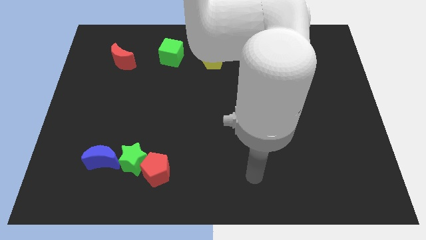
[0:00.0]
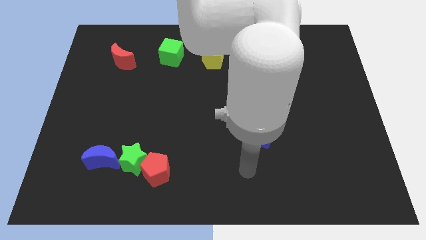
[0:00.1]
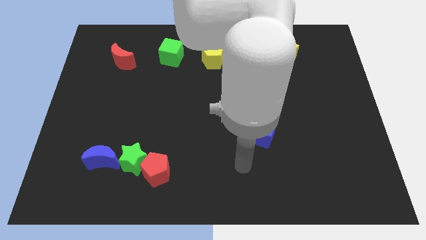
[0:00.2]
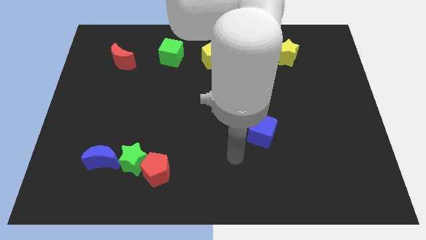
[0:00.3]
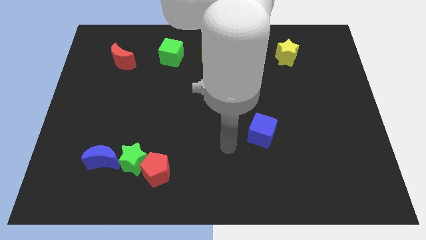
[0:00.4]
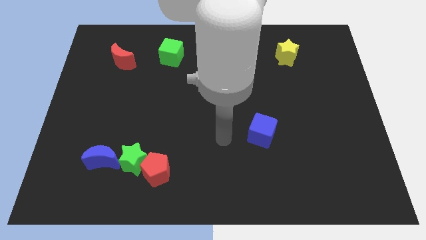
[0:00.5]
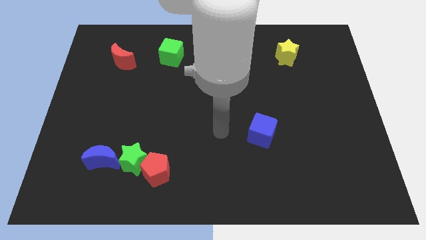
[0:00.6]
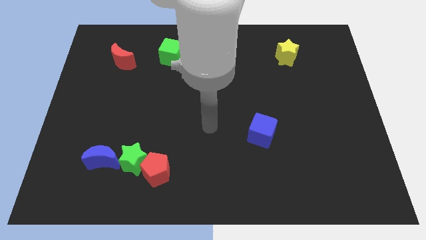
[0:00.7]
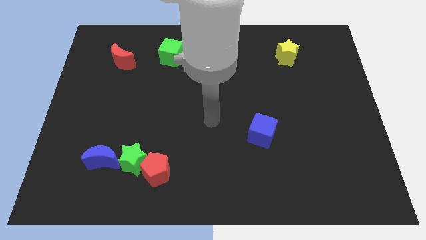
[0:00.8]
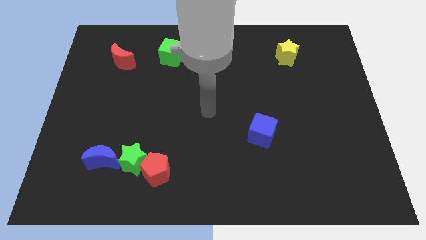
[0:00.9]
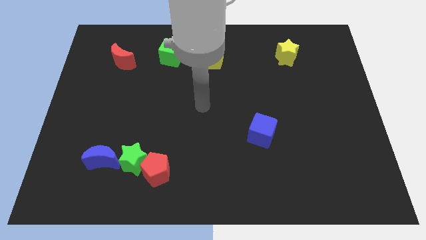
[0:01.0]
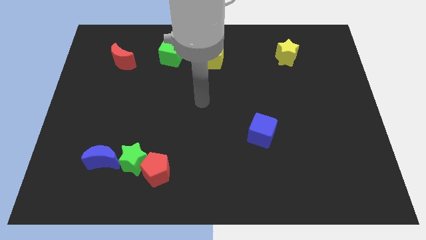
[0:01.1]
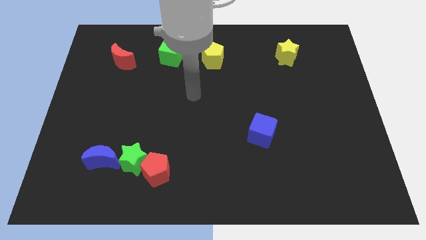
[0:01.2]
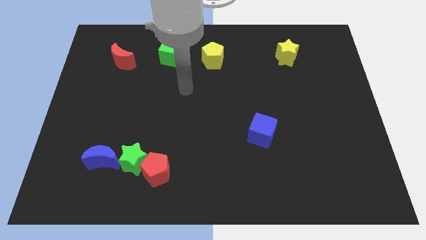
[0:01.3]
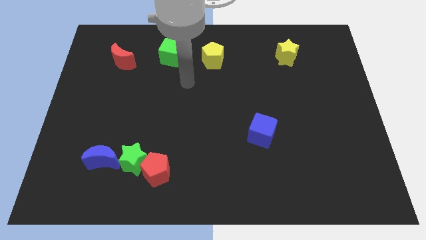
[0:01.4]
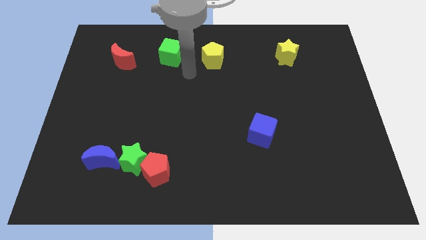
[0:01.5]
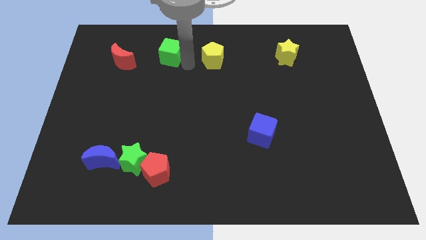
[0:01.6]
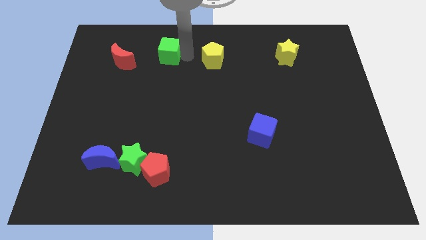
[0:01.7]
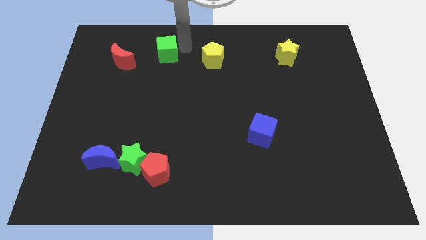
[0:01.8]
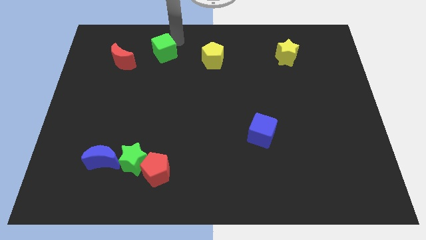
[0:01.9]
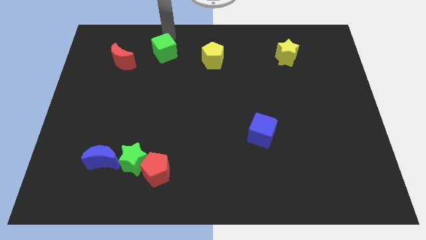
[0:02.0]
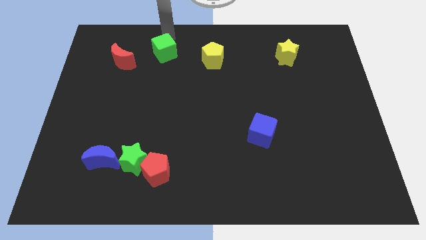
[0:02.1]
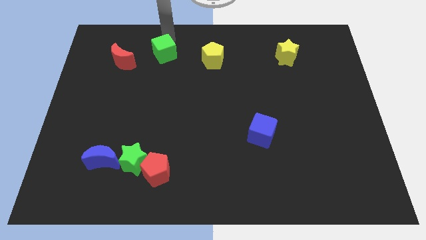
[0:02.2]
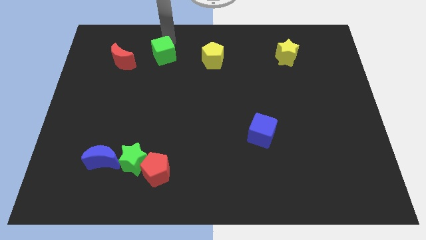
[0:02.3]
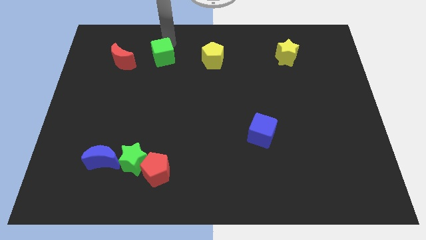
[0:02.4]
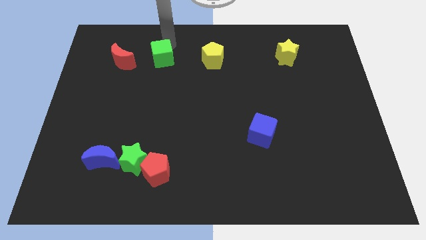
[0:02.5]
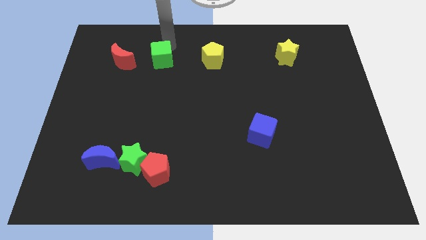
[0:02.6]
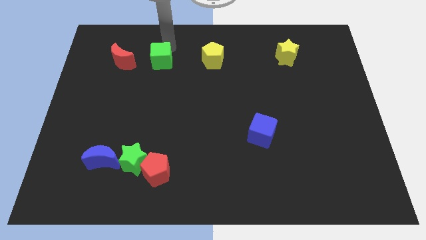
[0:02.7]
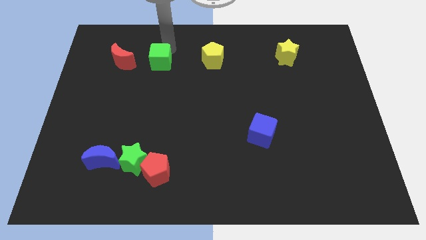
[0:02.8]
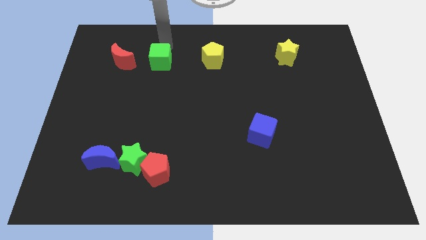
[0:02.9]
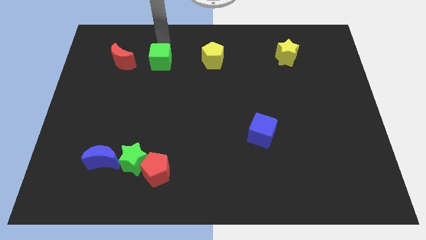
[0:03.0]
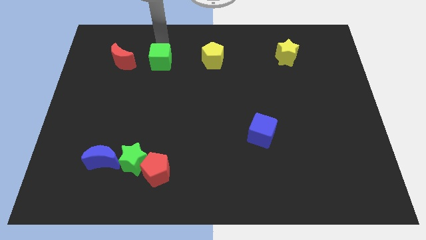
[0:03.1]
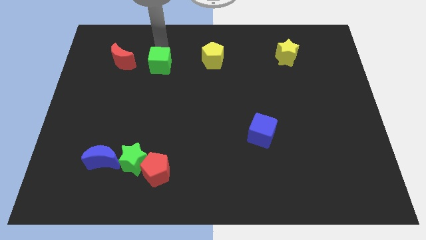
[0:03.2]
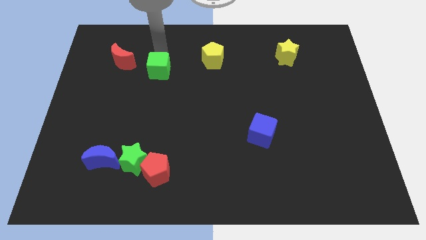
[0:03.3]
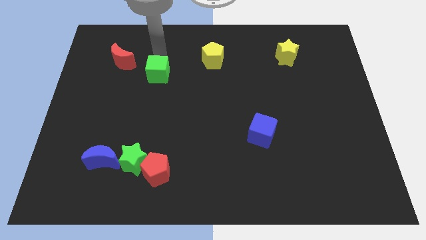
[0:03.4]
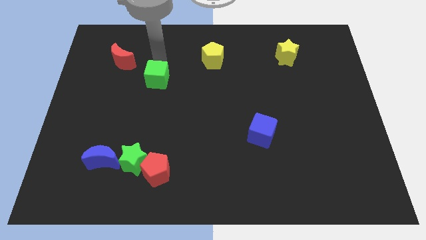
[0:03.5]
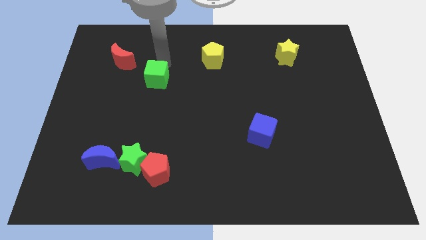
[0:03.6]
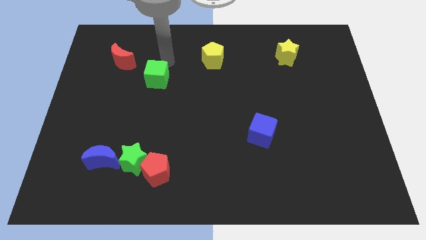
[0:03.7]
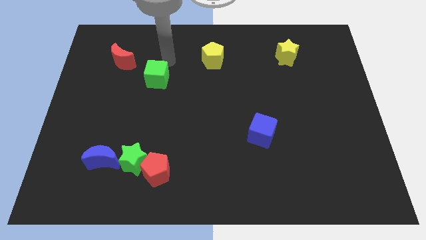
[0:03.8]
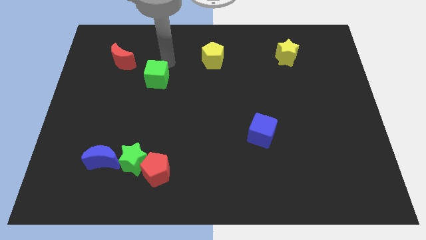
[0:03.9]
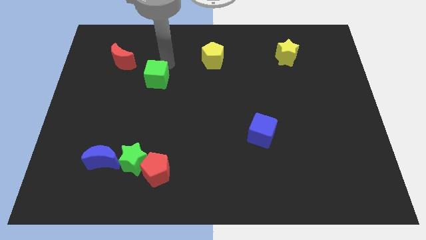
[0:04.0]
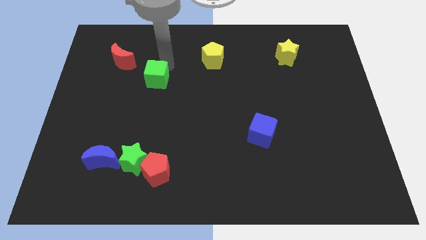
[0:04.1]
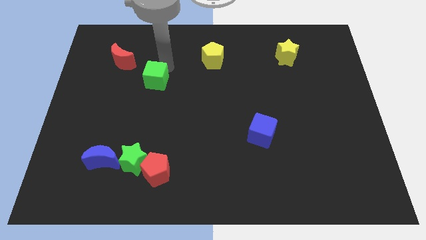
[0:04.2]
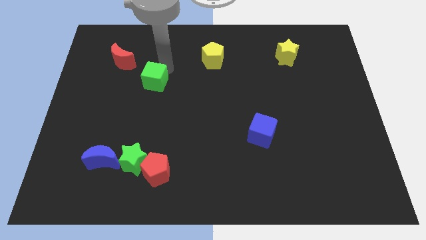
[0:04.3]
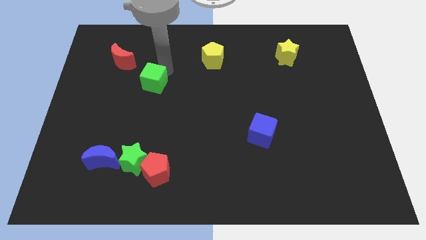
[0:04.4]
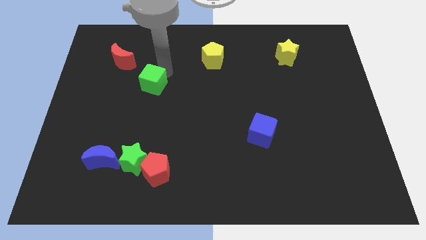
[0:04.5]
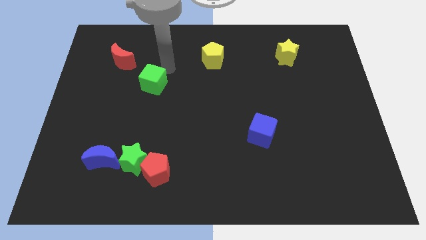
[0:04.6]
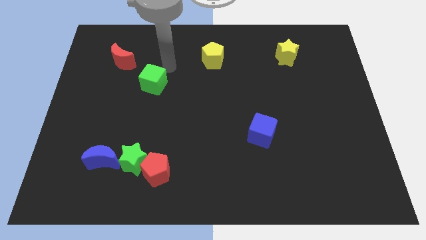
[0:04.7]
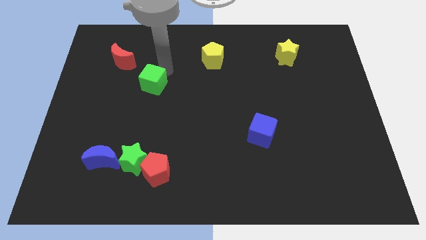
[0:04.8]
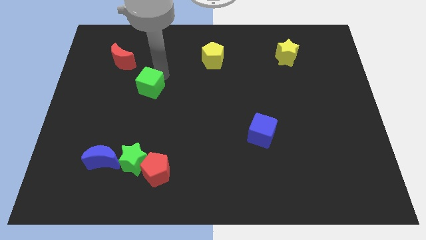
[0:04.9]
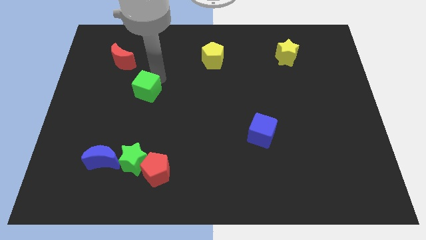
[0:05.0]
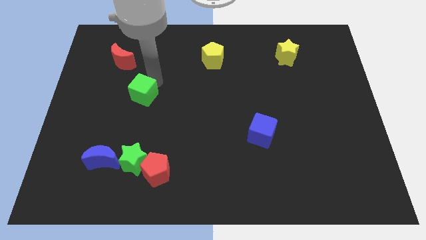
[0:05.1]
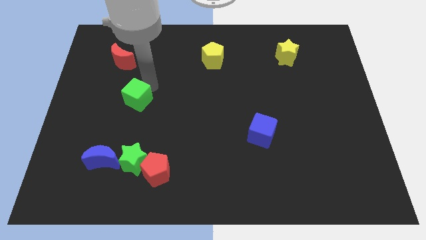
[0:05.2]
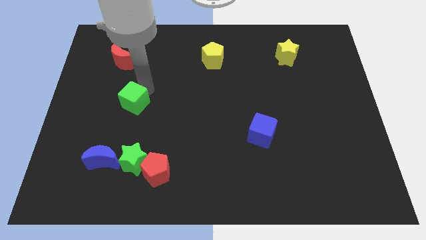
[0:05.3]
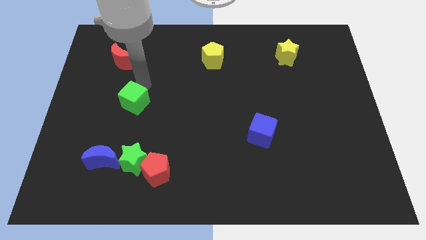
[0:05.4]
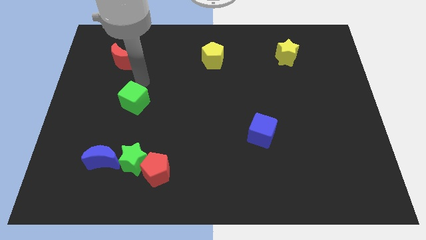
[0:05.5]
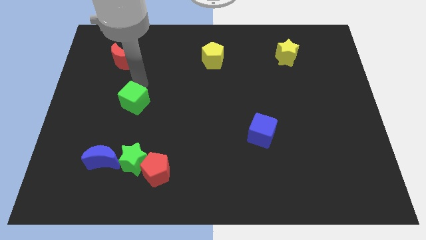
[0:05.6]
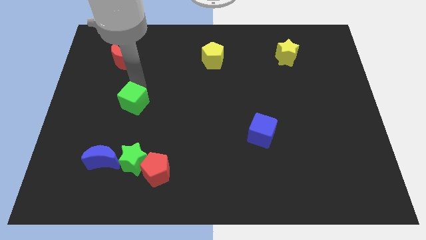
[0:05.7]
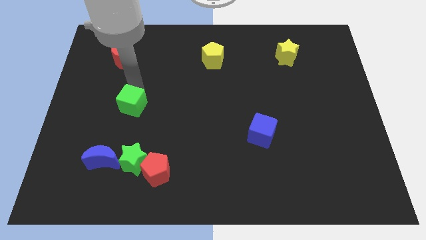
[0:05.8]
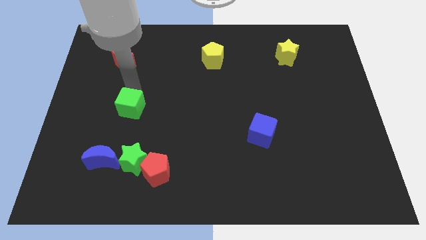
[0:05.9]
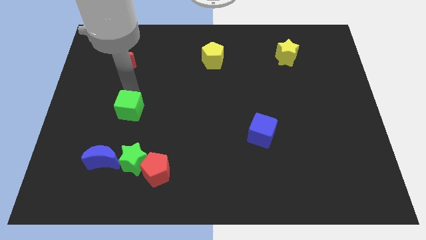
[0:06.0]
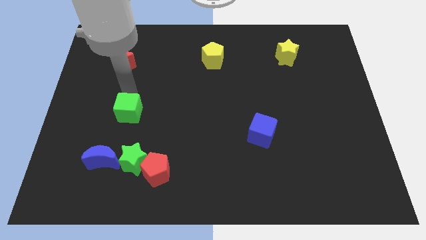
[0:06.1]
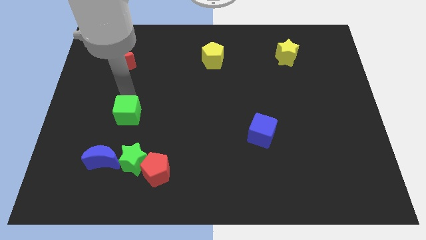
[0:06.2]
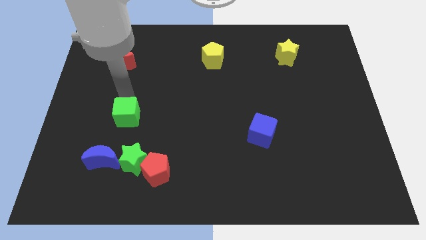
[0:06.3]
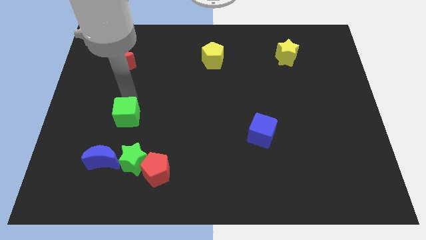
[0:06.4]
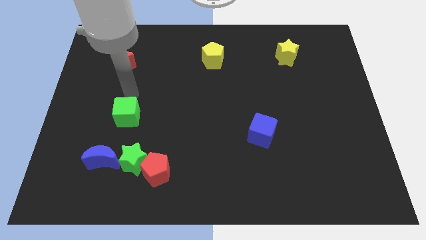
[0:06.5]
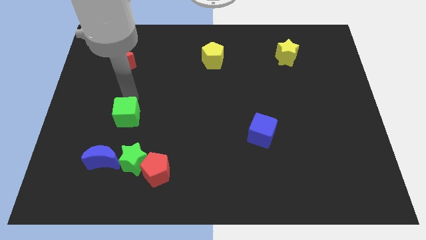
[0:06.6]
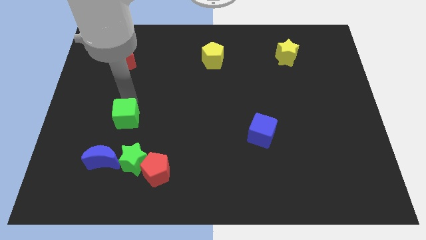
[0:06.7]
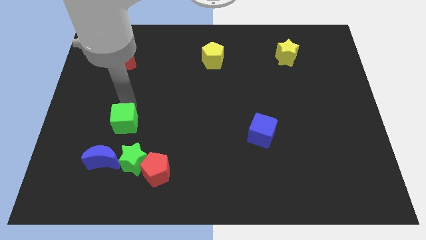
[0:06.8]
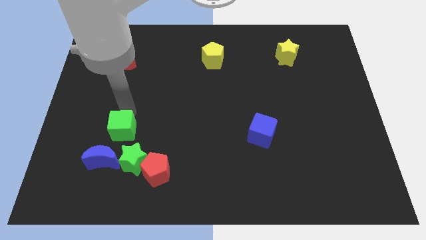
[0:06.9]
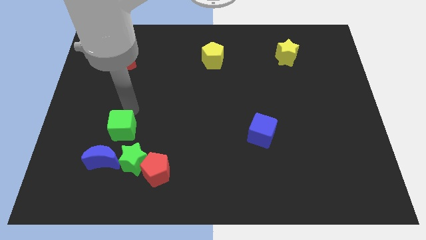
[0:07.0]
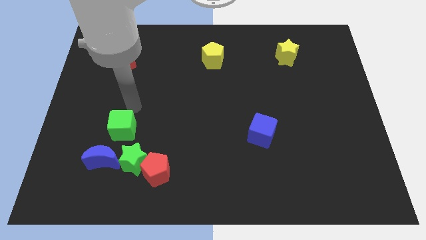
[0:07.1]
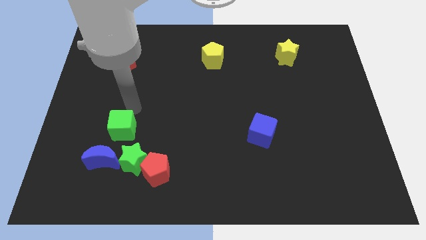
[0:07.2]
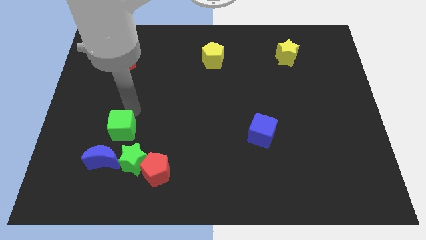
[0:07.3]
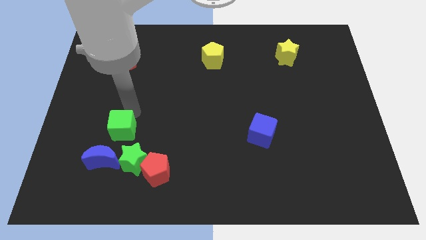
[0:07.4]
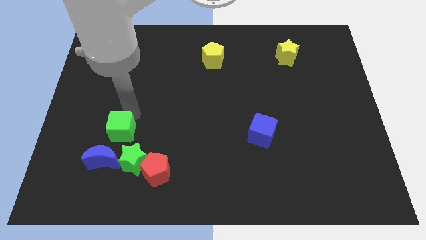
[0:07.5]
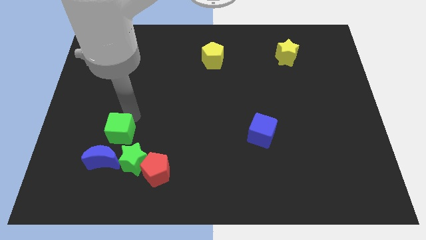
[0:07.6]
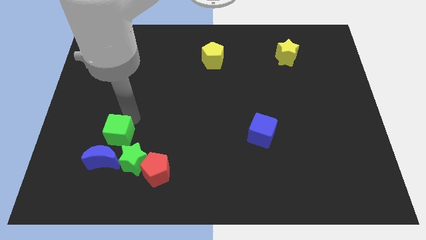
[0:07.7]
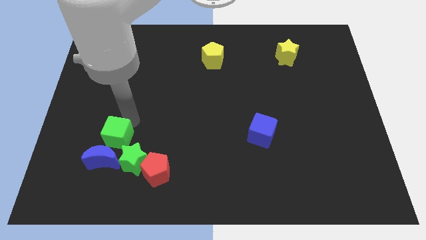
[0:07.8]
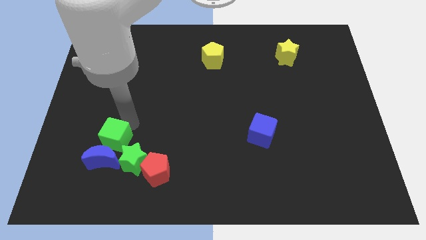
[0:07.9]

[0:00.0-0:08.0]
move the green cube close to the blue moon

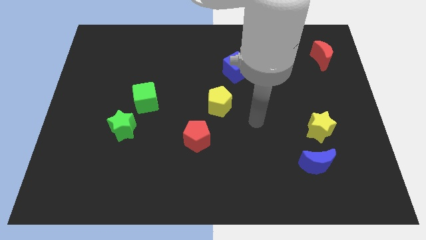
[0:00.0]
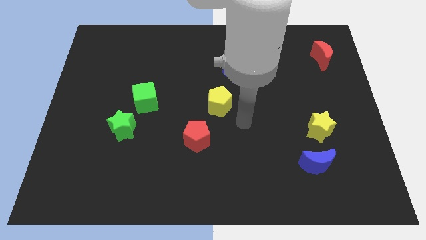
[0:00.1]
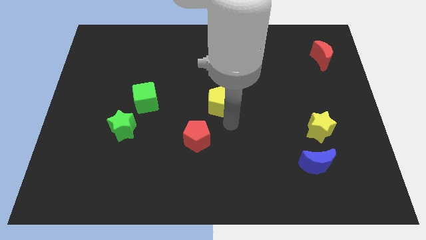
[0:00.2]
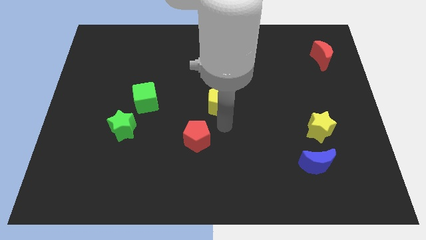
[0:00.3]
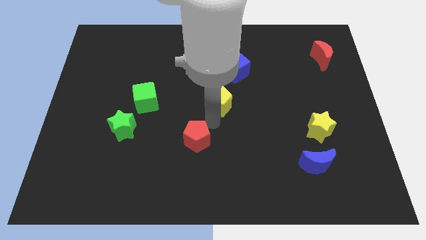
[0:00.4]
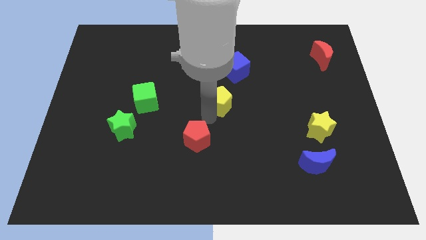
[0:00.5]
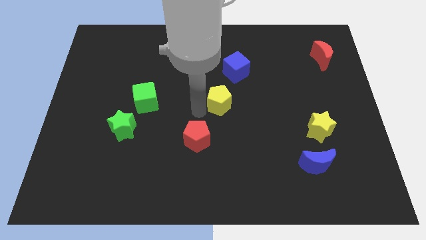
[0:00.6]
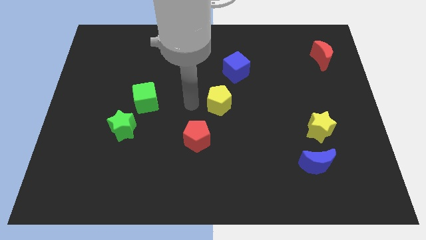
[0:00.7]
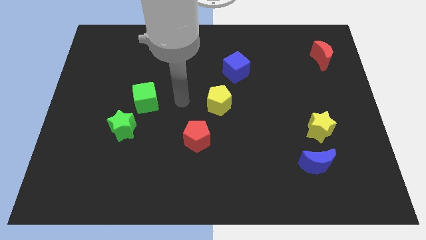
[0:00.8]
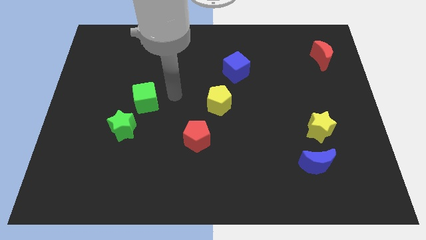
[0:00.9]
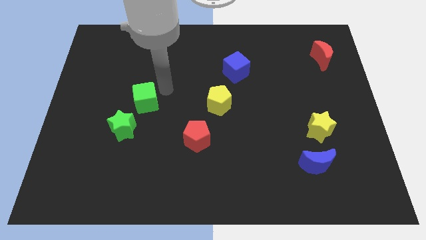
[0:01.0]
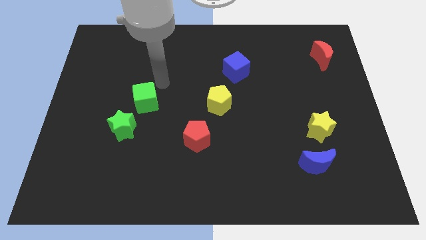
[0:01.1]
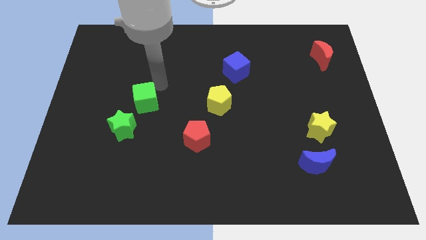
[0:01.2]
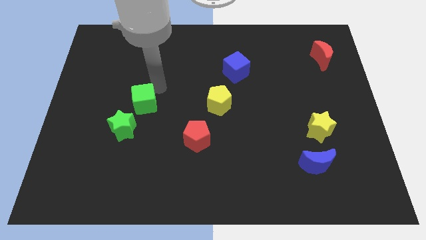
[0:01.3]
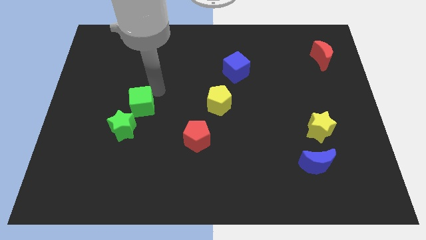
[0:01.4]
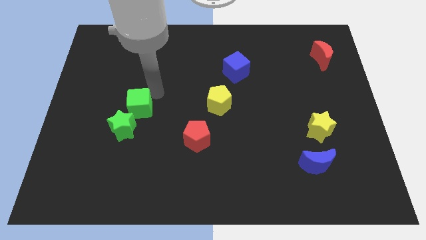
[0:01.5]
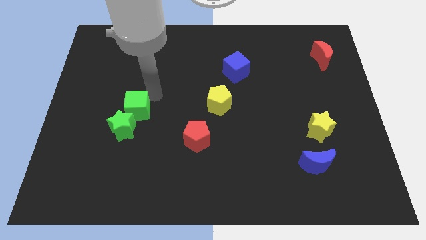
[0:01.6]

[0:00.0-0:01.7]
put the green cube close to the green star
